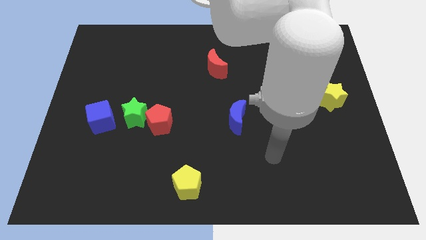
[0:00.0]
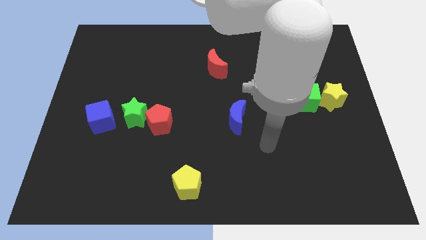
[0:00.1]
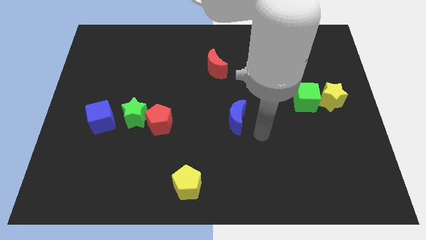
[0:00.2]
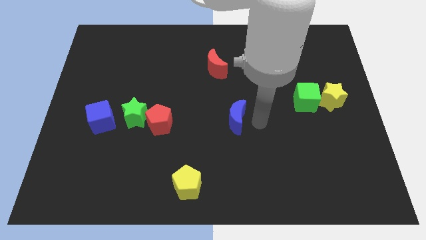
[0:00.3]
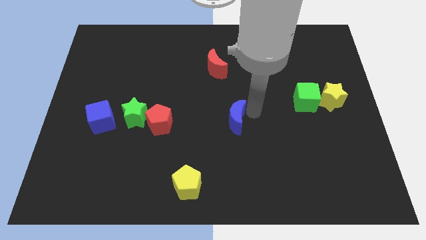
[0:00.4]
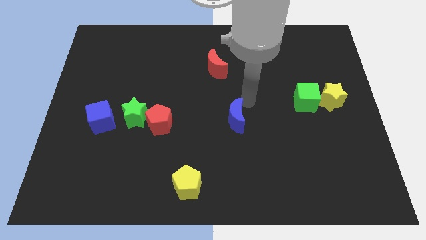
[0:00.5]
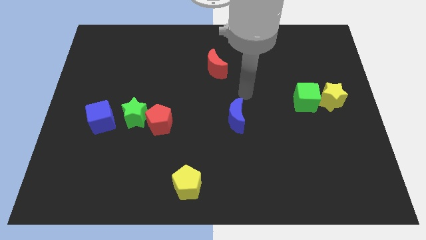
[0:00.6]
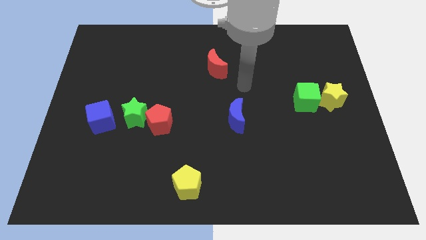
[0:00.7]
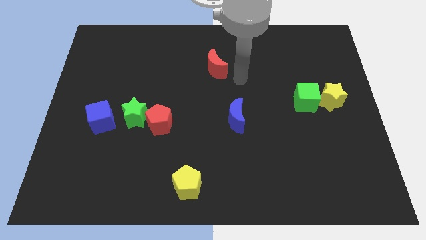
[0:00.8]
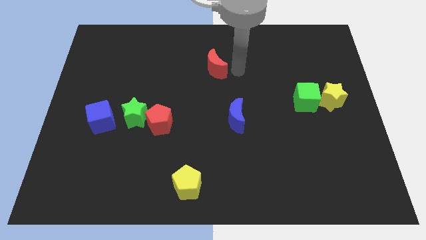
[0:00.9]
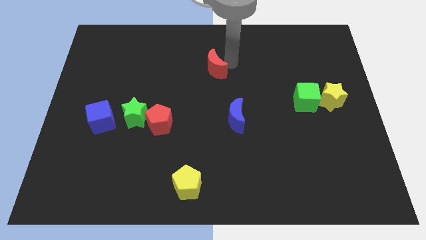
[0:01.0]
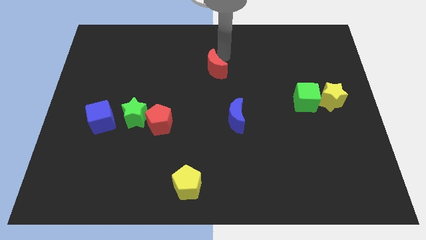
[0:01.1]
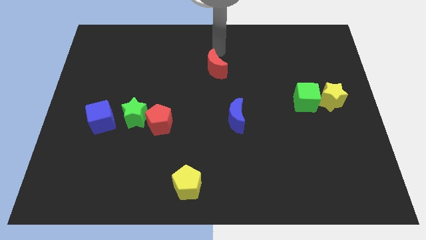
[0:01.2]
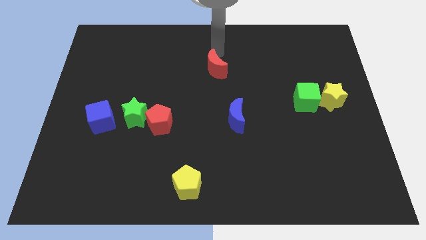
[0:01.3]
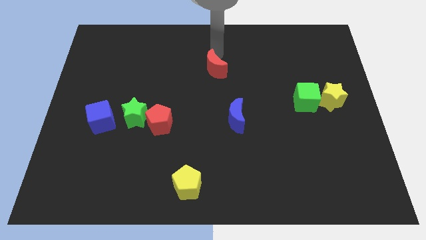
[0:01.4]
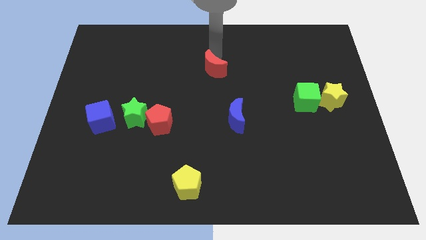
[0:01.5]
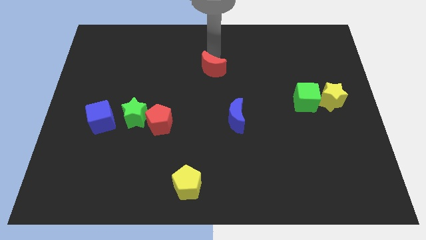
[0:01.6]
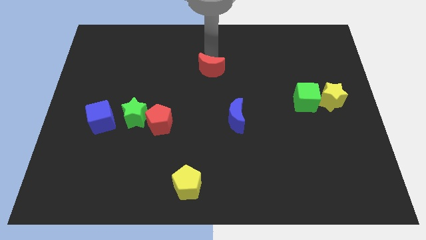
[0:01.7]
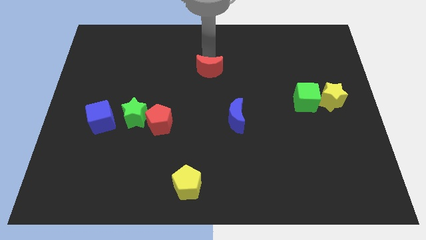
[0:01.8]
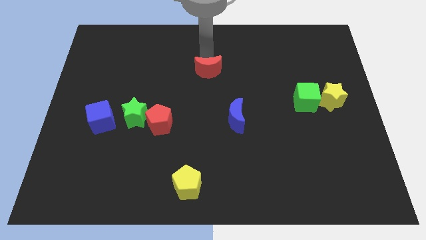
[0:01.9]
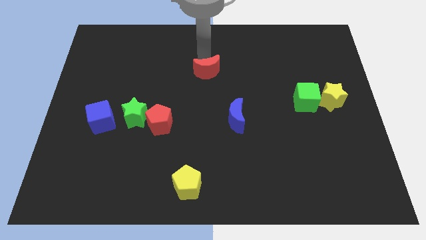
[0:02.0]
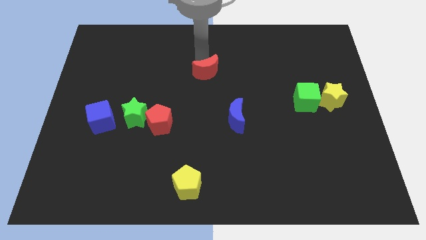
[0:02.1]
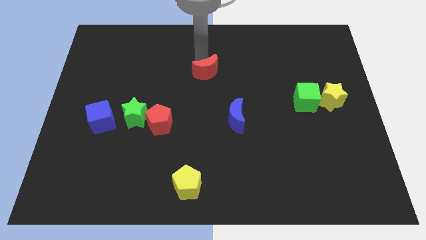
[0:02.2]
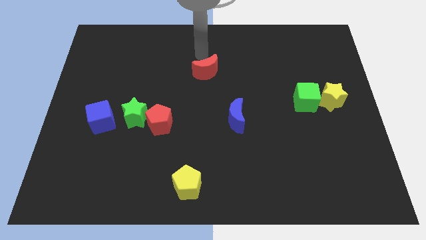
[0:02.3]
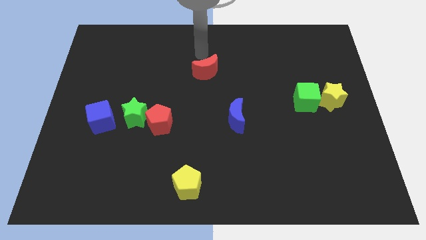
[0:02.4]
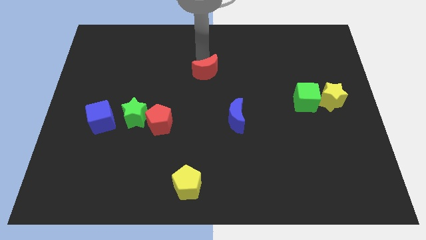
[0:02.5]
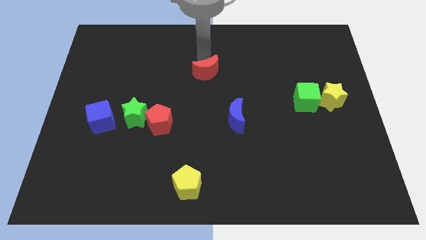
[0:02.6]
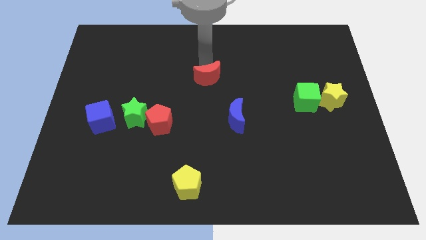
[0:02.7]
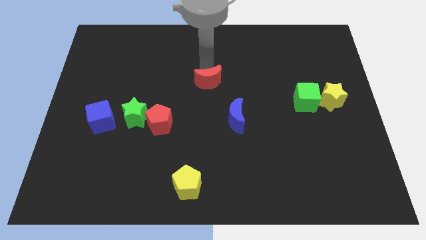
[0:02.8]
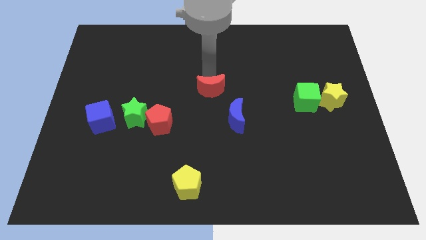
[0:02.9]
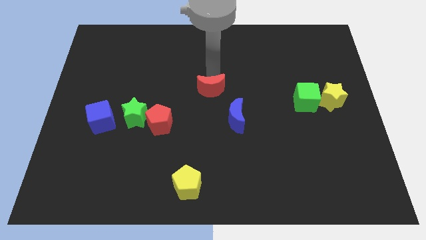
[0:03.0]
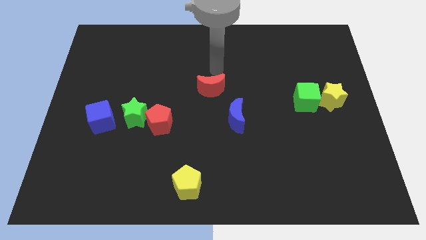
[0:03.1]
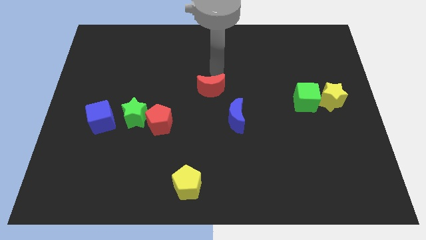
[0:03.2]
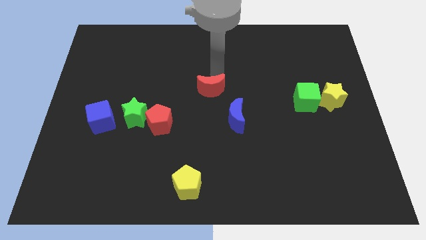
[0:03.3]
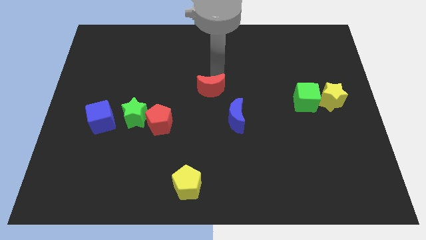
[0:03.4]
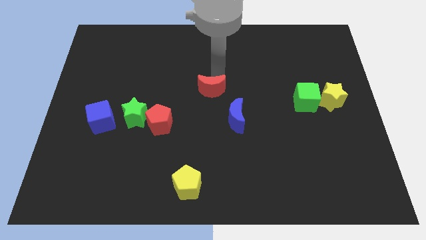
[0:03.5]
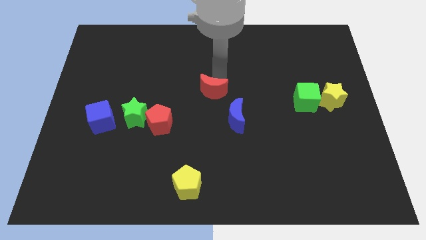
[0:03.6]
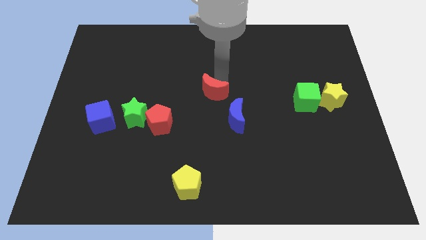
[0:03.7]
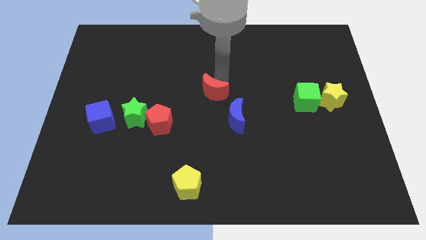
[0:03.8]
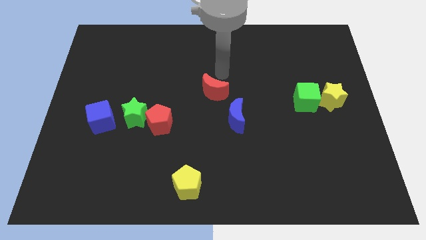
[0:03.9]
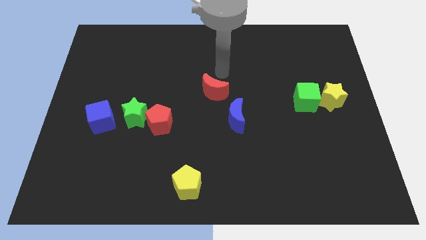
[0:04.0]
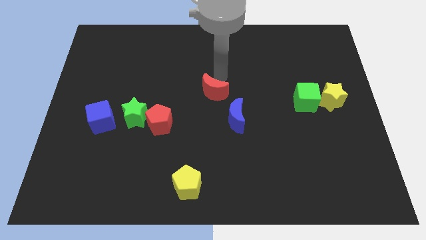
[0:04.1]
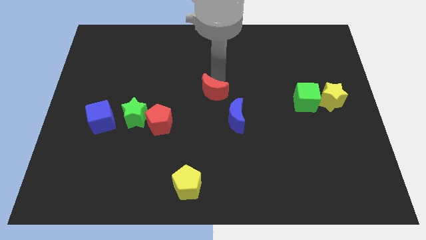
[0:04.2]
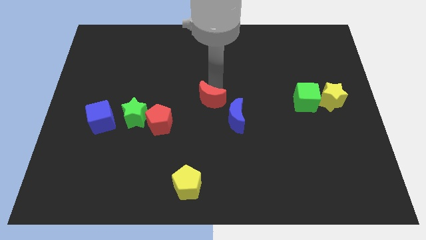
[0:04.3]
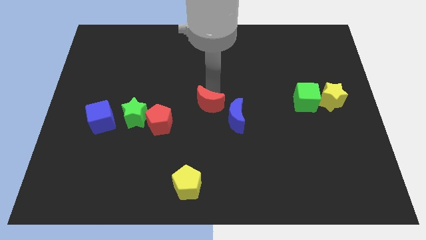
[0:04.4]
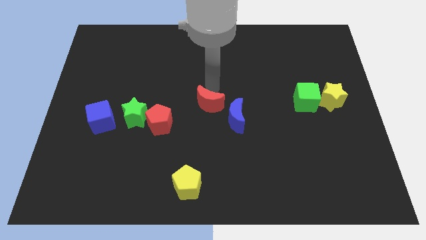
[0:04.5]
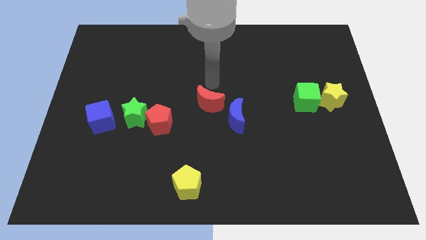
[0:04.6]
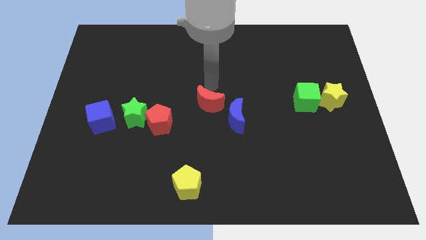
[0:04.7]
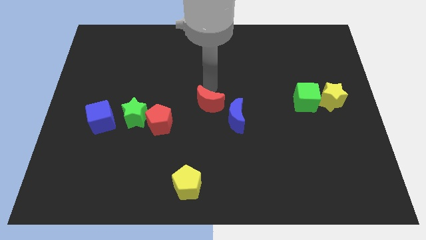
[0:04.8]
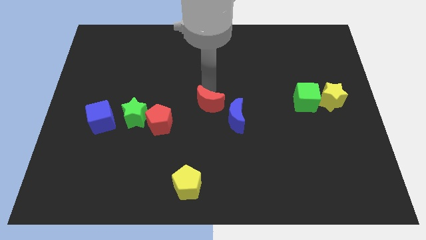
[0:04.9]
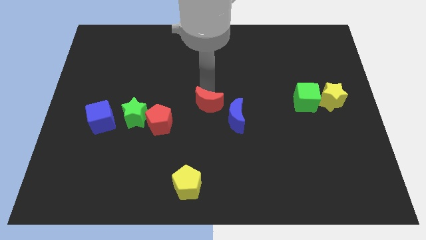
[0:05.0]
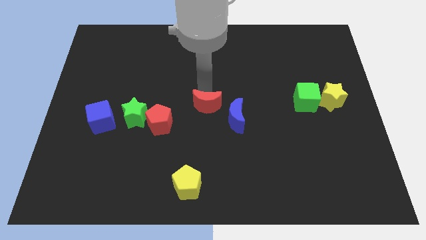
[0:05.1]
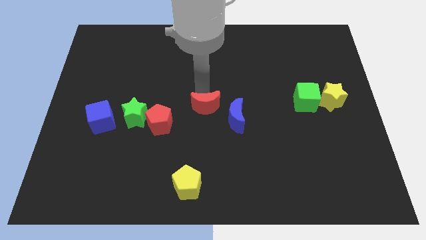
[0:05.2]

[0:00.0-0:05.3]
put the red moon to the right side of the red pentagon

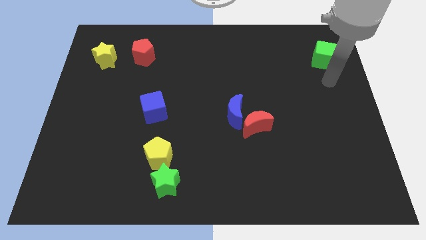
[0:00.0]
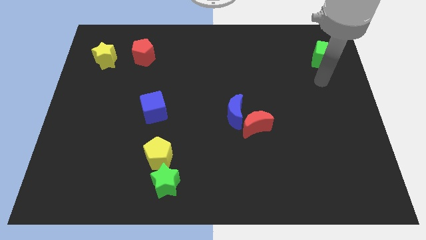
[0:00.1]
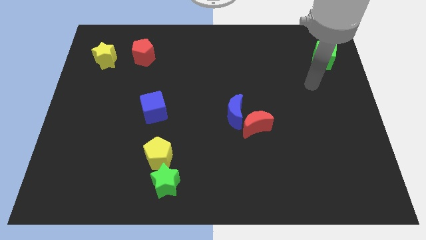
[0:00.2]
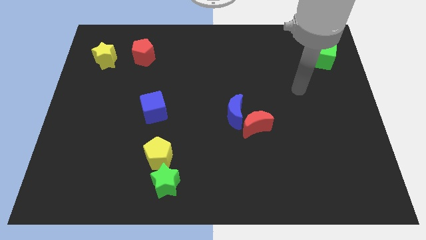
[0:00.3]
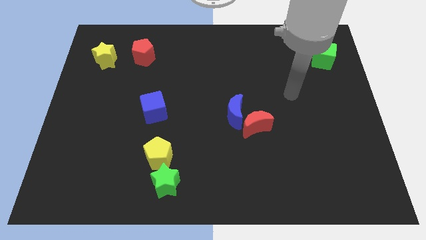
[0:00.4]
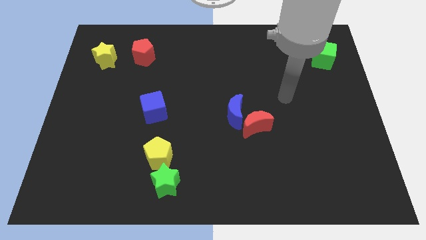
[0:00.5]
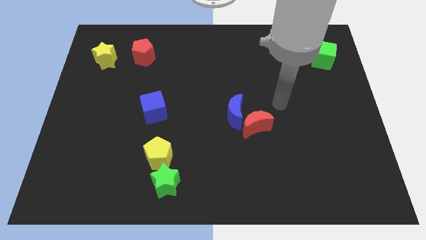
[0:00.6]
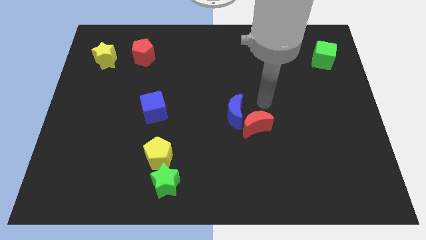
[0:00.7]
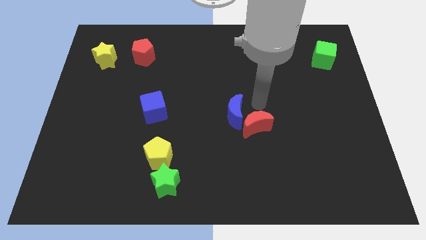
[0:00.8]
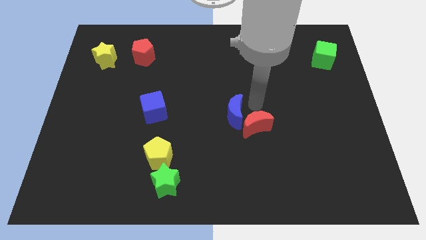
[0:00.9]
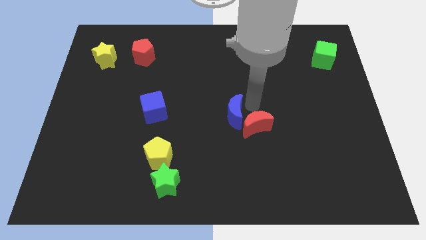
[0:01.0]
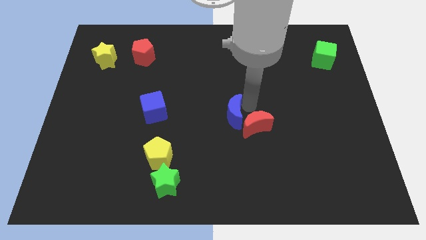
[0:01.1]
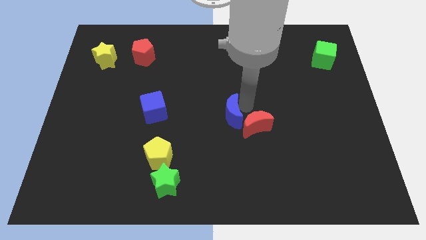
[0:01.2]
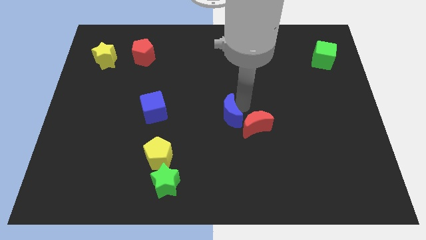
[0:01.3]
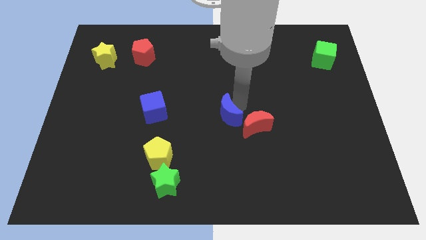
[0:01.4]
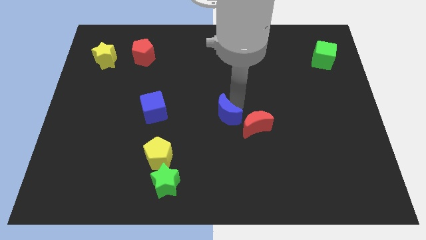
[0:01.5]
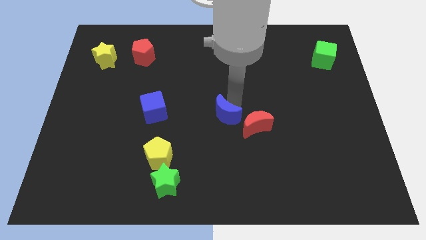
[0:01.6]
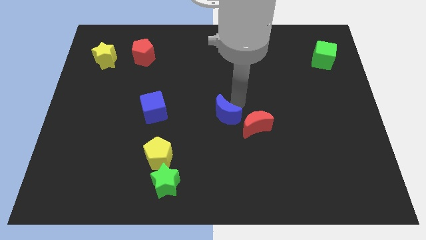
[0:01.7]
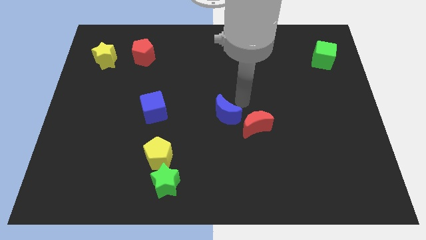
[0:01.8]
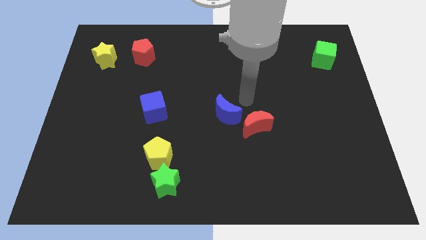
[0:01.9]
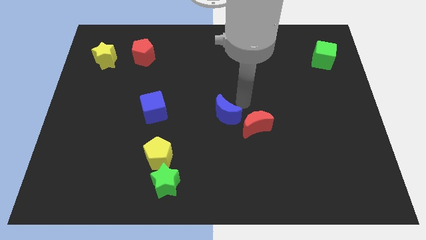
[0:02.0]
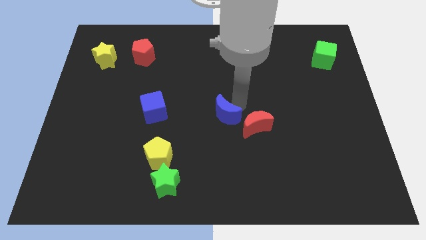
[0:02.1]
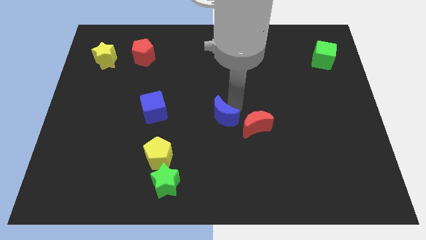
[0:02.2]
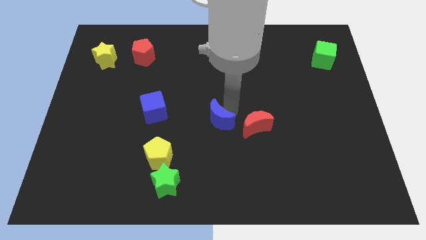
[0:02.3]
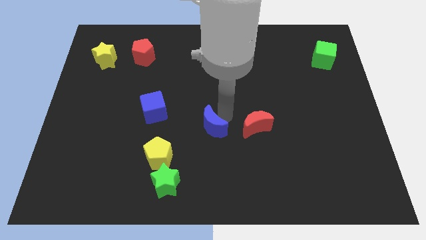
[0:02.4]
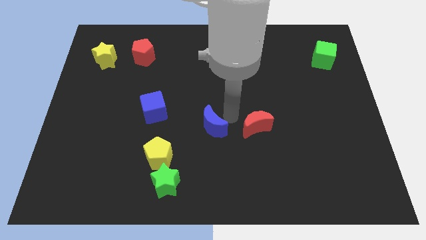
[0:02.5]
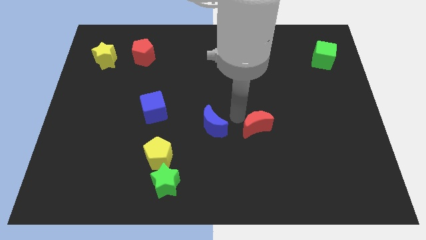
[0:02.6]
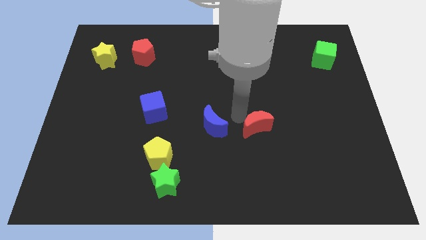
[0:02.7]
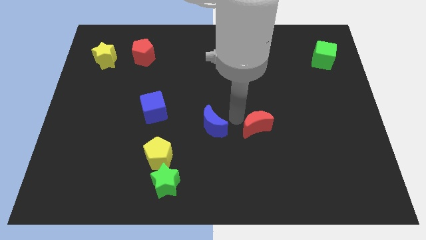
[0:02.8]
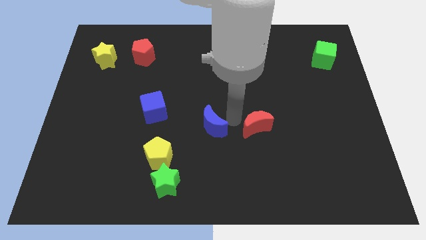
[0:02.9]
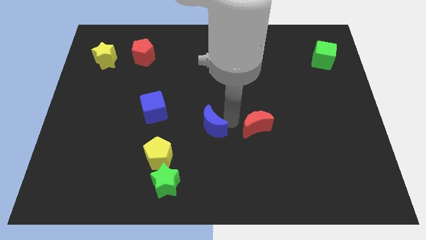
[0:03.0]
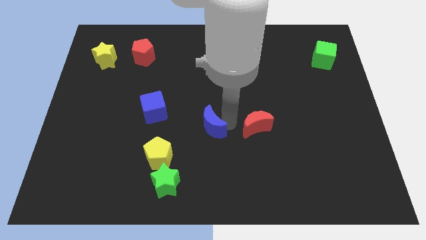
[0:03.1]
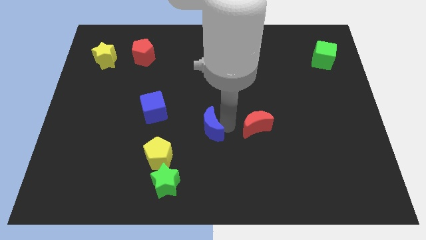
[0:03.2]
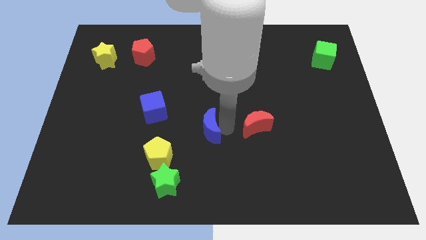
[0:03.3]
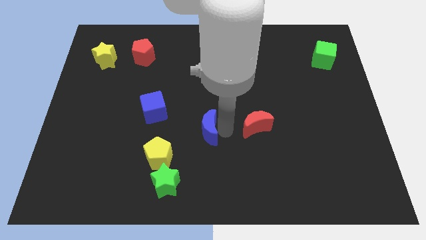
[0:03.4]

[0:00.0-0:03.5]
slide the blue moon diagonally up and to the right of the yellow pentagon
